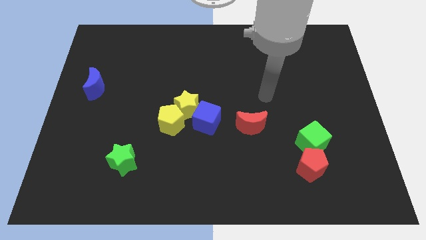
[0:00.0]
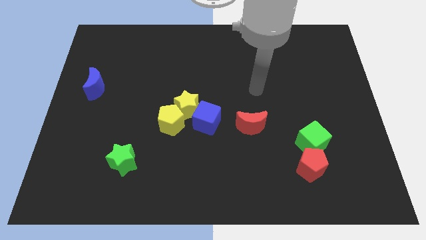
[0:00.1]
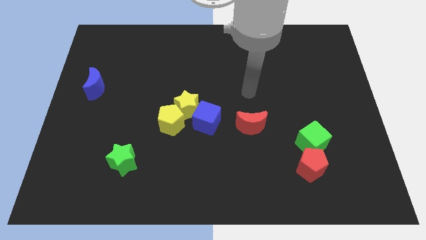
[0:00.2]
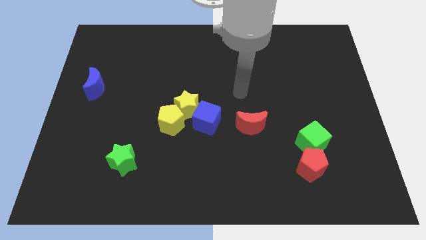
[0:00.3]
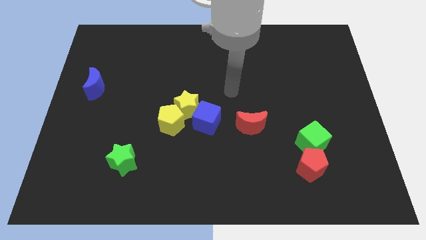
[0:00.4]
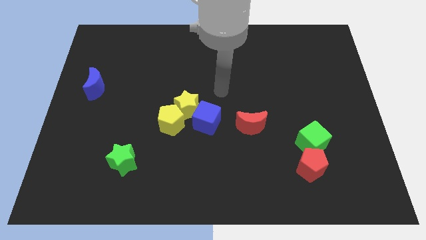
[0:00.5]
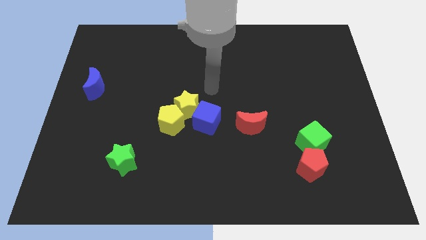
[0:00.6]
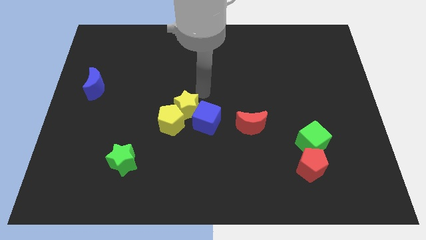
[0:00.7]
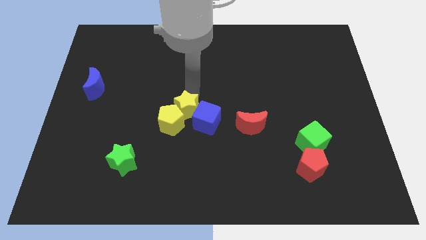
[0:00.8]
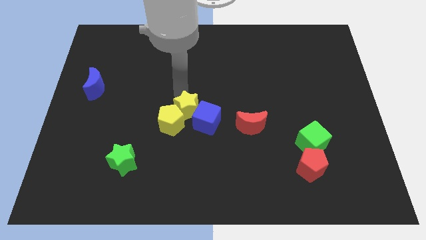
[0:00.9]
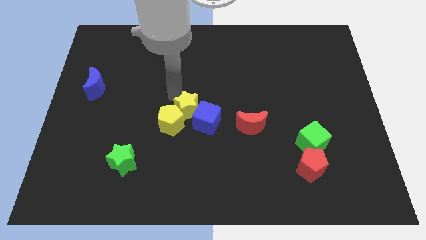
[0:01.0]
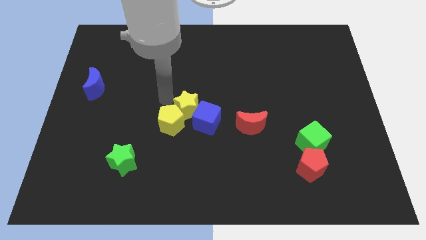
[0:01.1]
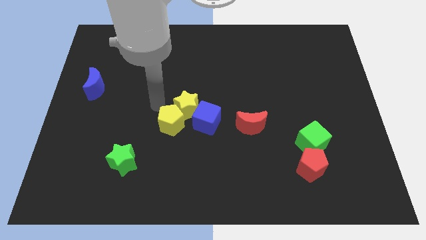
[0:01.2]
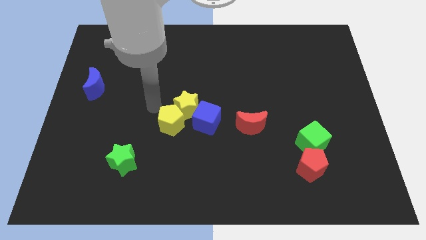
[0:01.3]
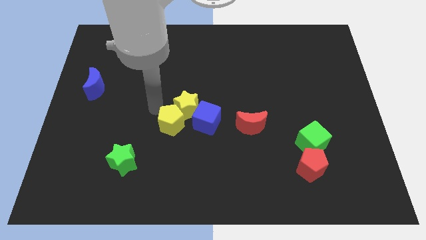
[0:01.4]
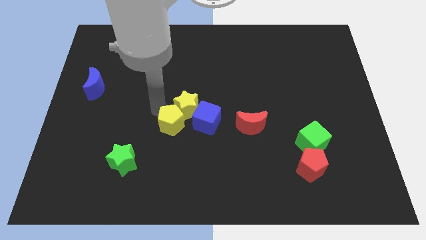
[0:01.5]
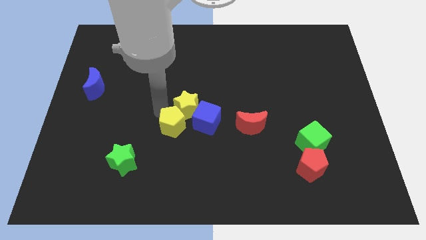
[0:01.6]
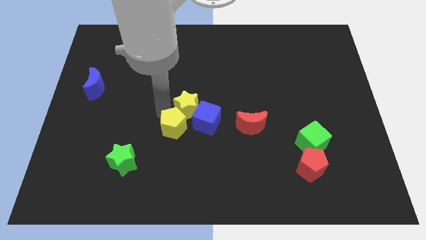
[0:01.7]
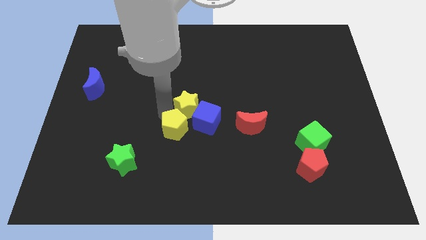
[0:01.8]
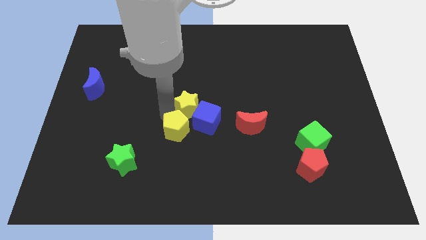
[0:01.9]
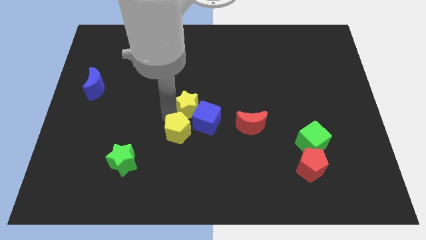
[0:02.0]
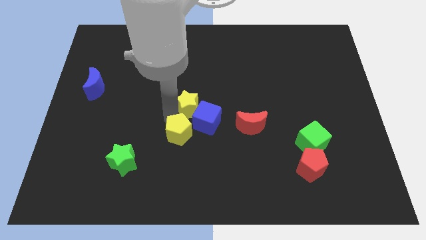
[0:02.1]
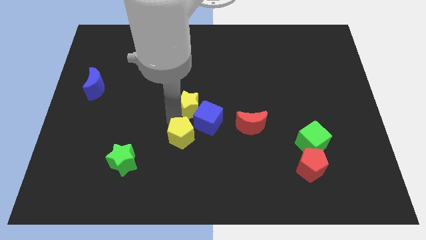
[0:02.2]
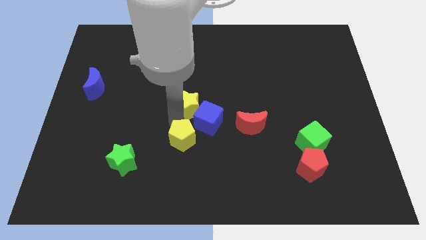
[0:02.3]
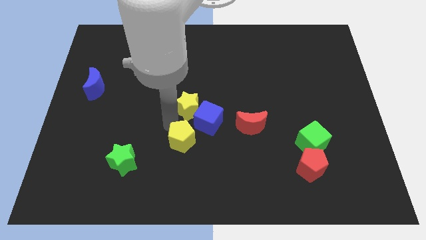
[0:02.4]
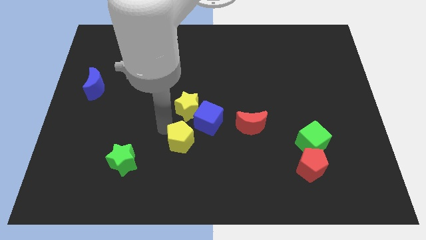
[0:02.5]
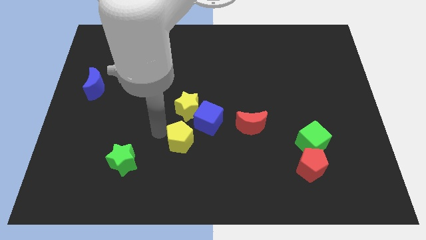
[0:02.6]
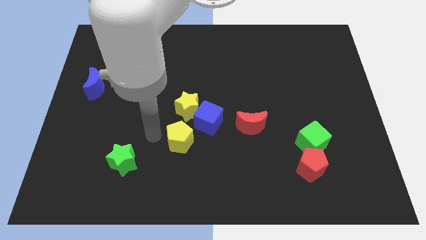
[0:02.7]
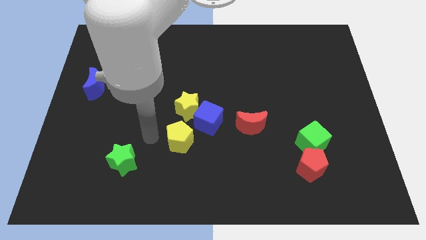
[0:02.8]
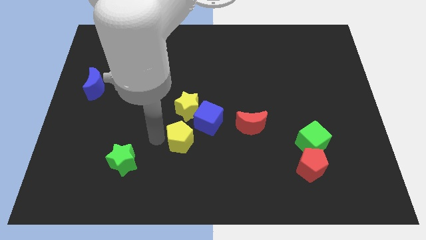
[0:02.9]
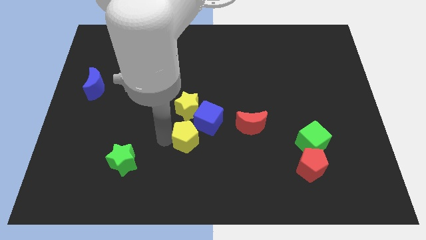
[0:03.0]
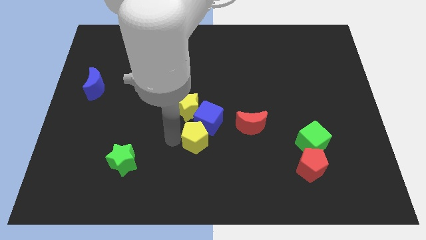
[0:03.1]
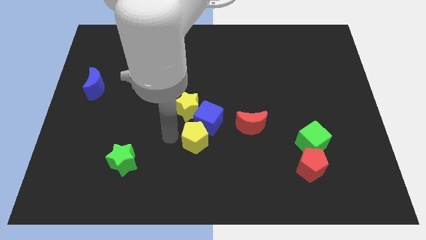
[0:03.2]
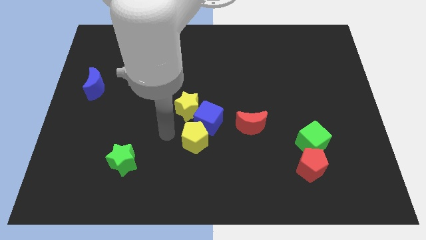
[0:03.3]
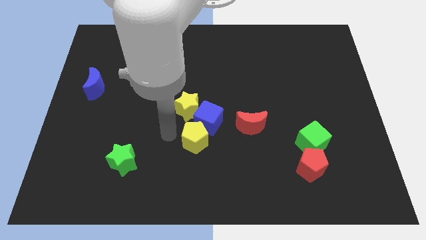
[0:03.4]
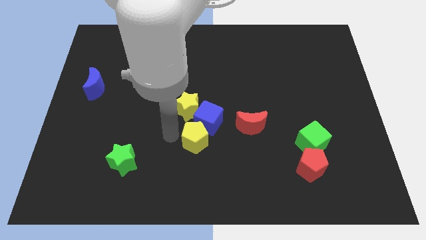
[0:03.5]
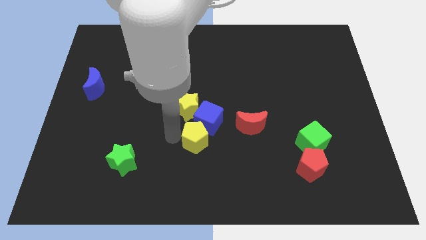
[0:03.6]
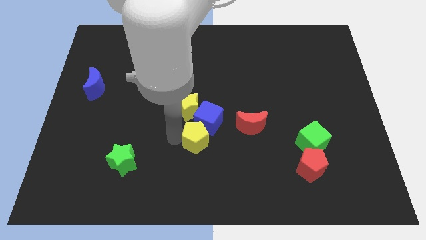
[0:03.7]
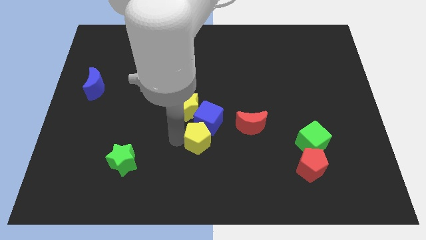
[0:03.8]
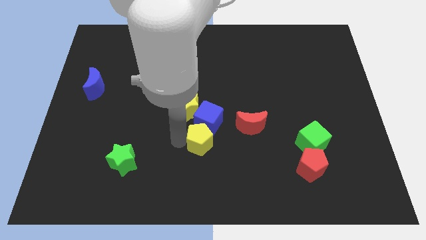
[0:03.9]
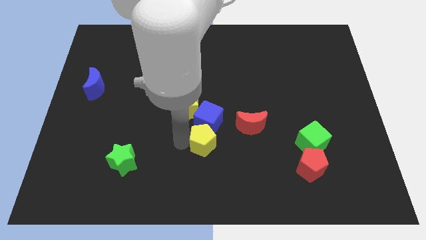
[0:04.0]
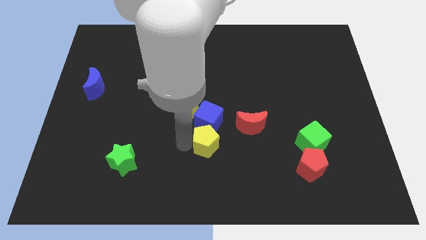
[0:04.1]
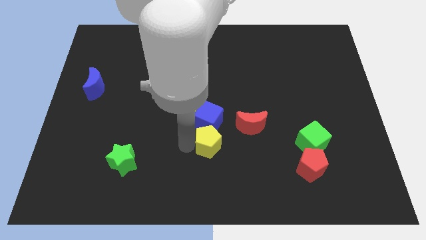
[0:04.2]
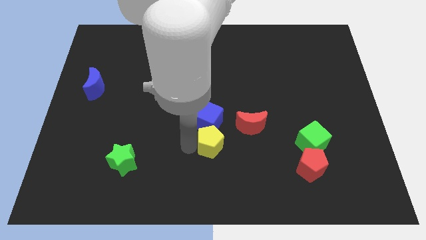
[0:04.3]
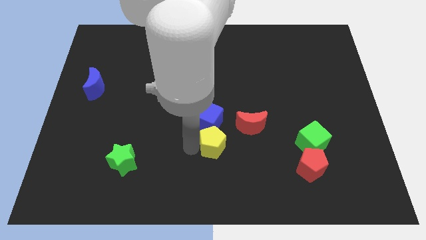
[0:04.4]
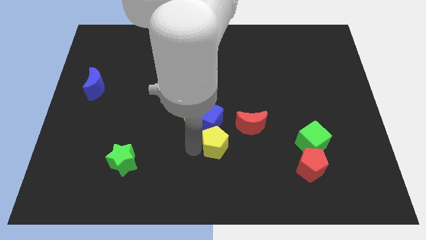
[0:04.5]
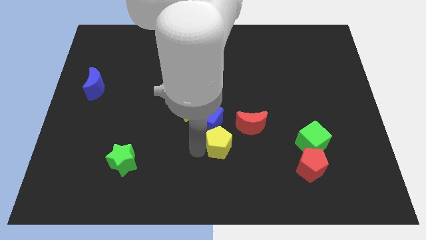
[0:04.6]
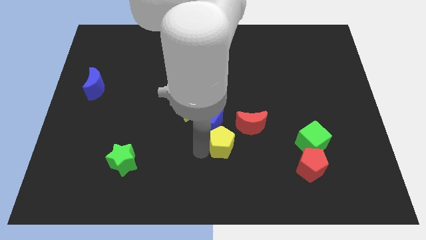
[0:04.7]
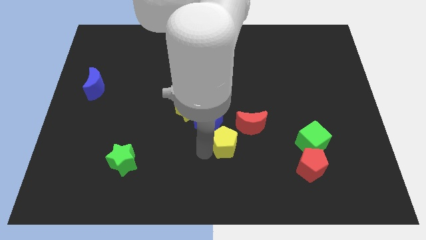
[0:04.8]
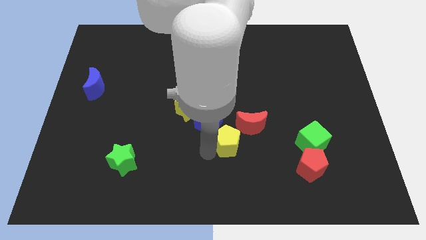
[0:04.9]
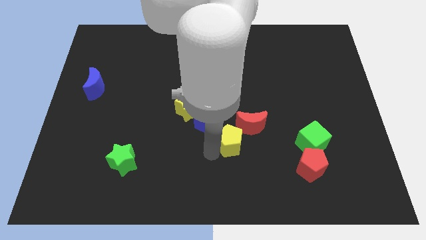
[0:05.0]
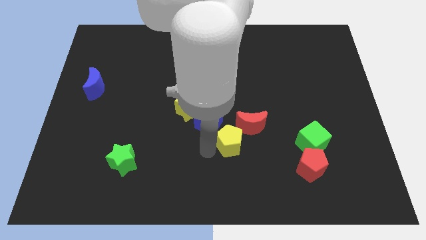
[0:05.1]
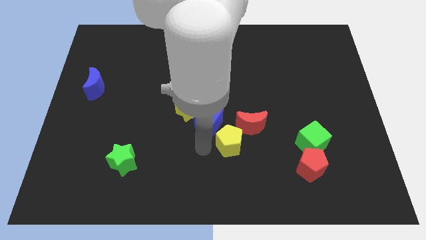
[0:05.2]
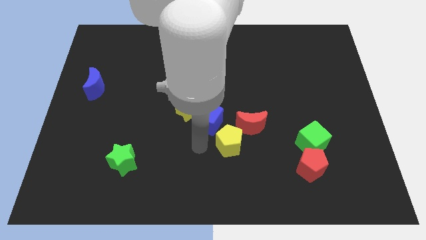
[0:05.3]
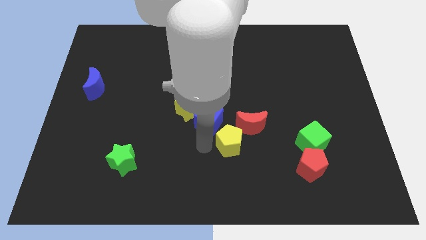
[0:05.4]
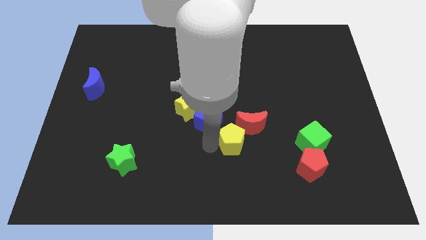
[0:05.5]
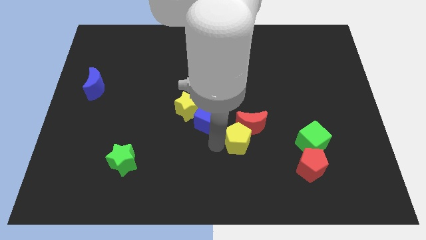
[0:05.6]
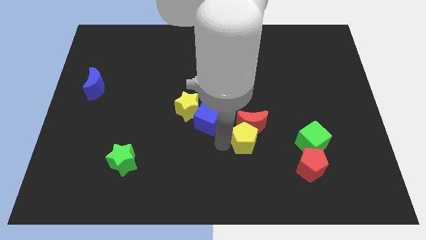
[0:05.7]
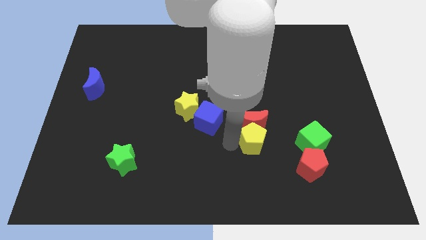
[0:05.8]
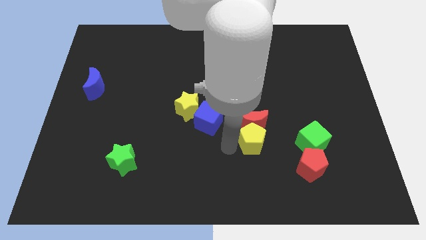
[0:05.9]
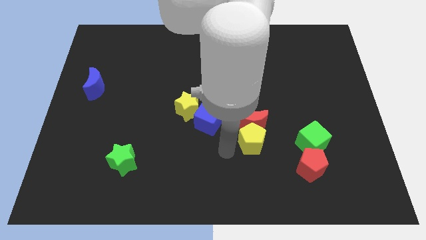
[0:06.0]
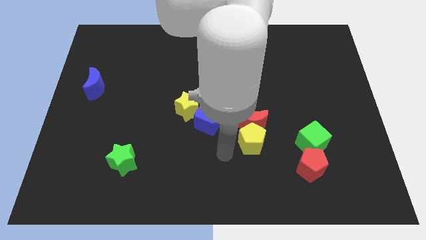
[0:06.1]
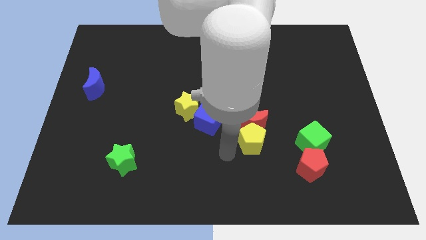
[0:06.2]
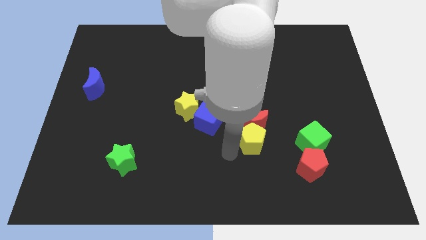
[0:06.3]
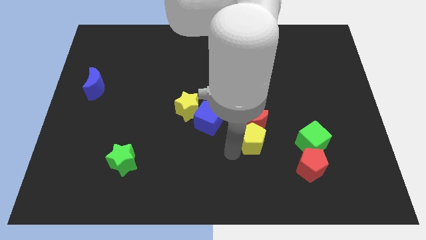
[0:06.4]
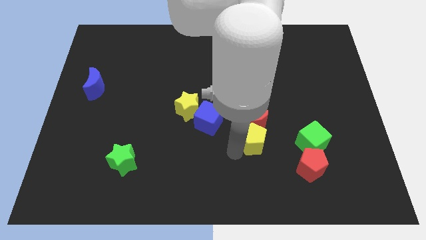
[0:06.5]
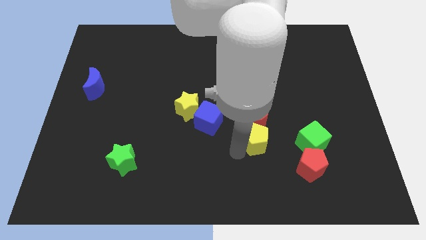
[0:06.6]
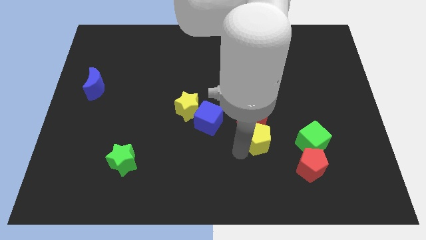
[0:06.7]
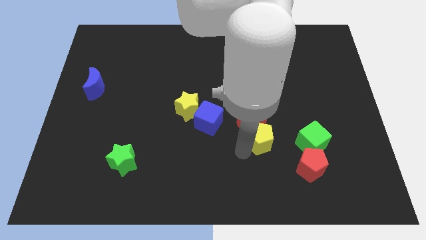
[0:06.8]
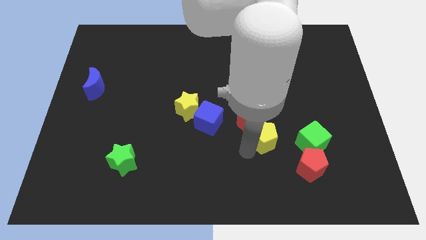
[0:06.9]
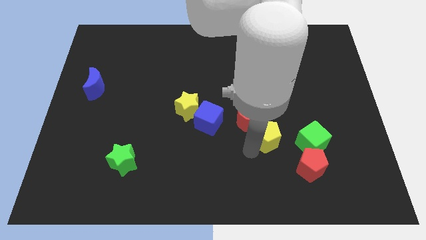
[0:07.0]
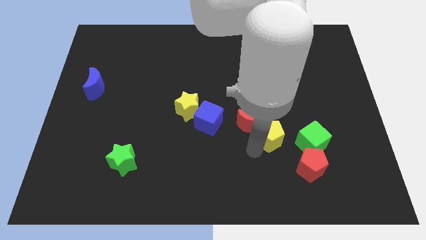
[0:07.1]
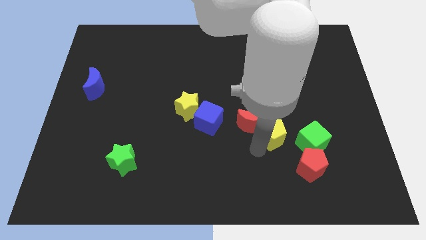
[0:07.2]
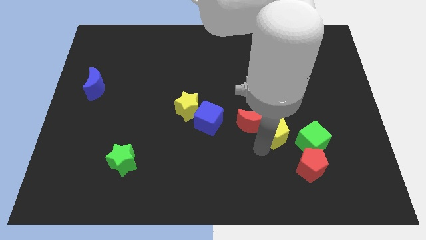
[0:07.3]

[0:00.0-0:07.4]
push the yellow pentagon to the top left side of the green cube

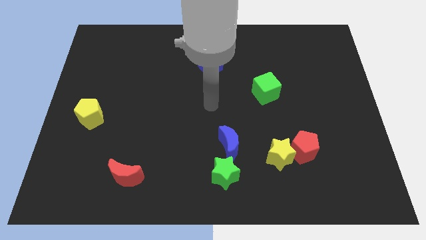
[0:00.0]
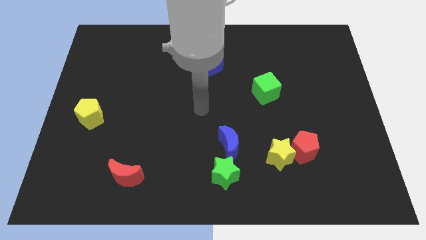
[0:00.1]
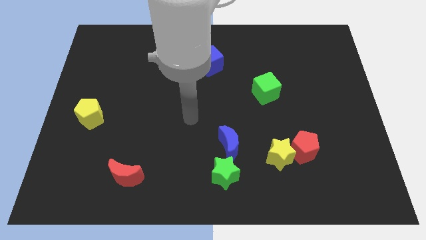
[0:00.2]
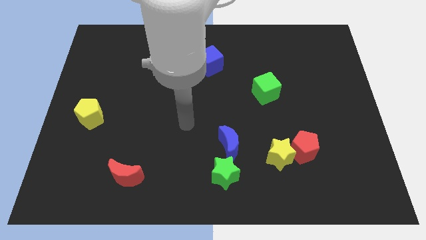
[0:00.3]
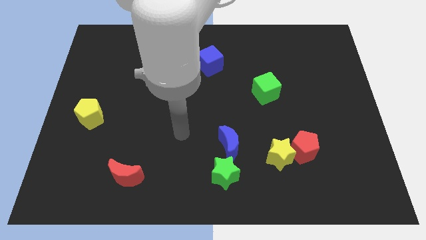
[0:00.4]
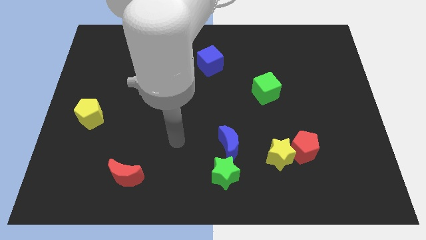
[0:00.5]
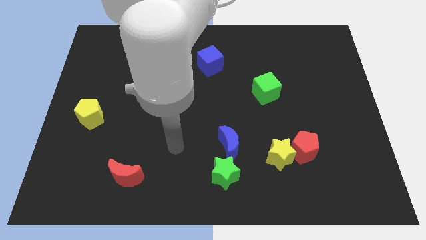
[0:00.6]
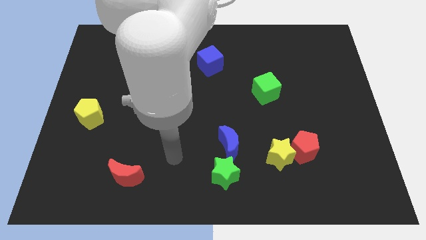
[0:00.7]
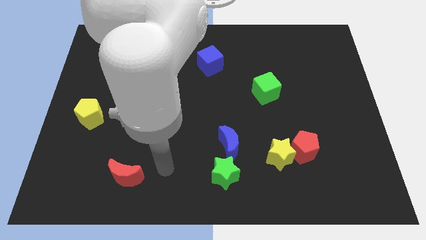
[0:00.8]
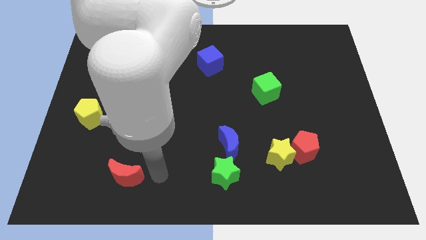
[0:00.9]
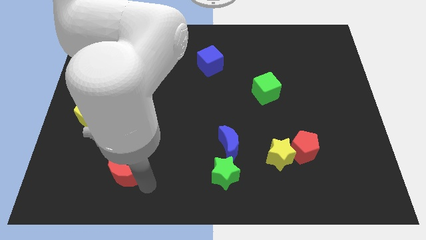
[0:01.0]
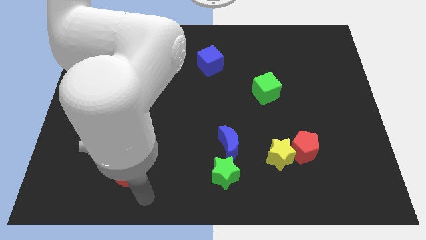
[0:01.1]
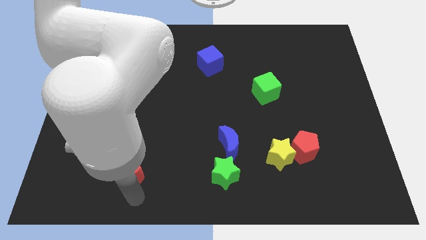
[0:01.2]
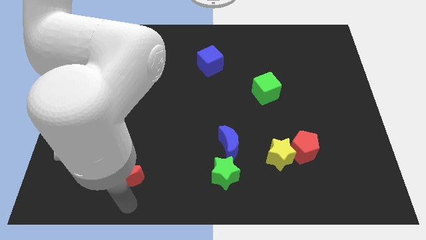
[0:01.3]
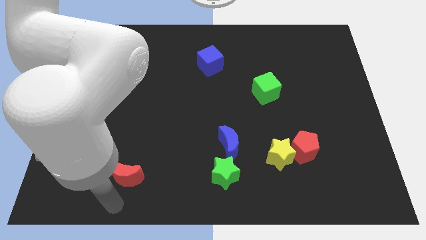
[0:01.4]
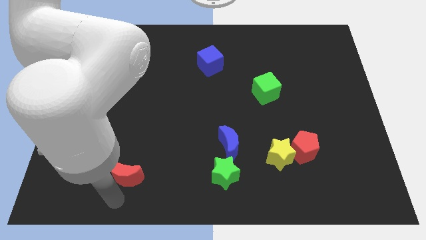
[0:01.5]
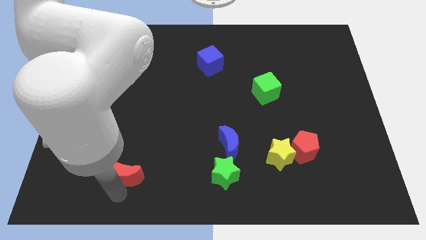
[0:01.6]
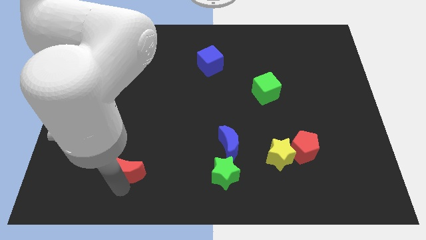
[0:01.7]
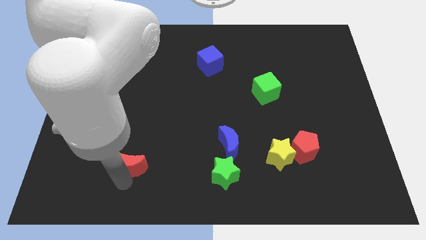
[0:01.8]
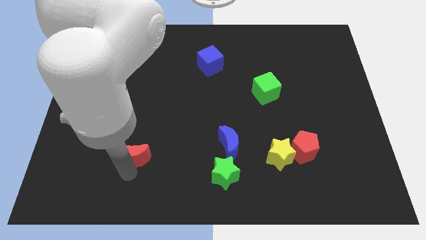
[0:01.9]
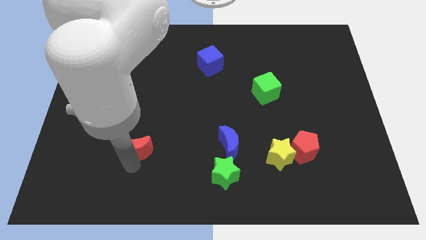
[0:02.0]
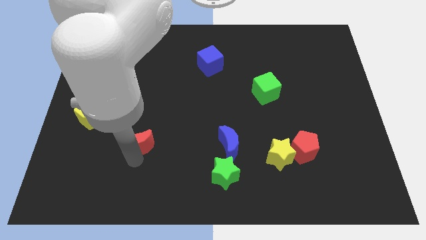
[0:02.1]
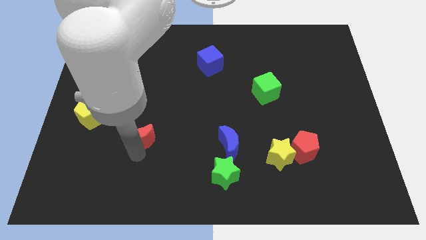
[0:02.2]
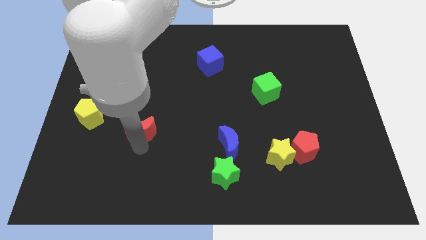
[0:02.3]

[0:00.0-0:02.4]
put the red moon to the right side of the yellow pentagon
